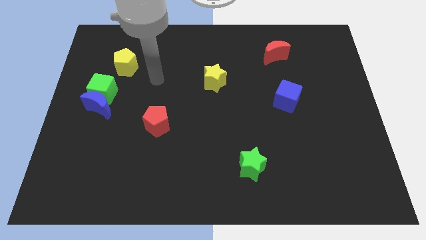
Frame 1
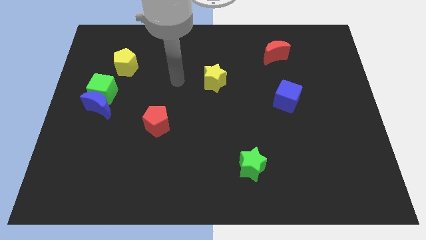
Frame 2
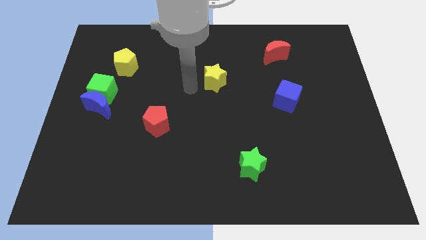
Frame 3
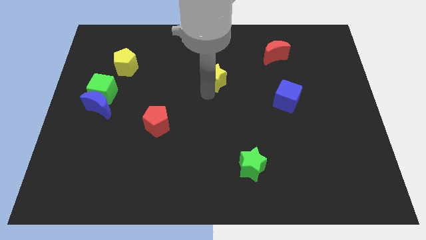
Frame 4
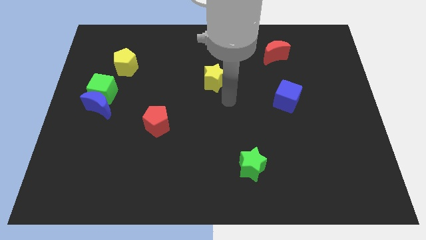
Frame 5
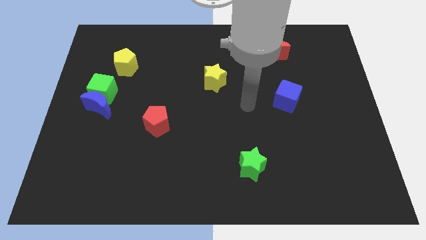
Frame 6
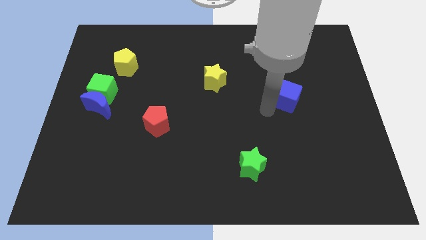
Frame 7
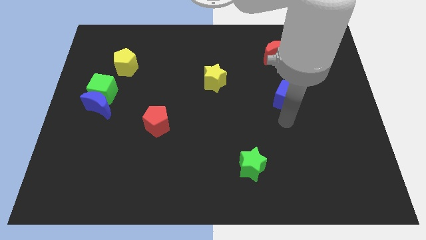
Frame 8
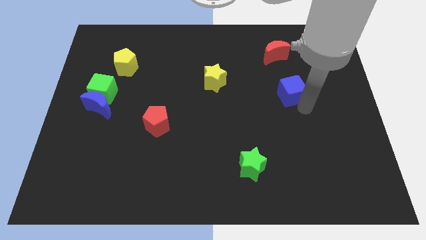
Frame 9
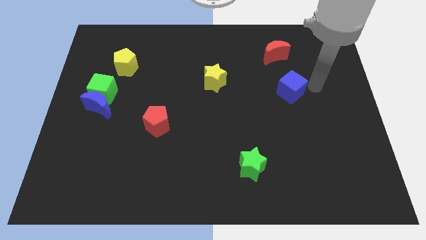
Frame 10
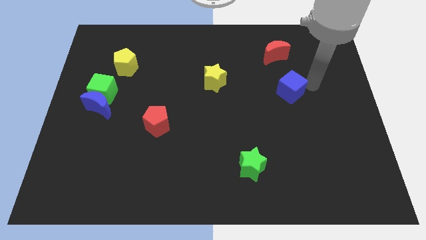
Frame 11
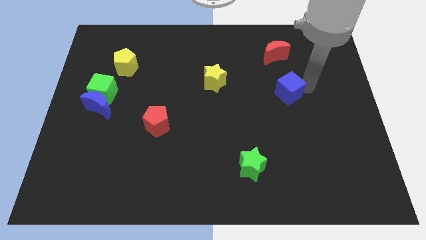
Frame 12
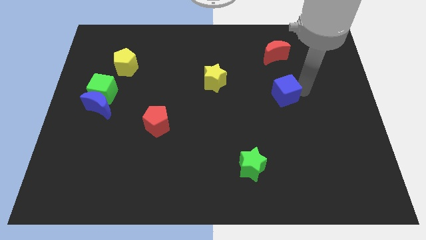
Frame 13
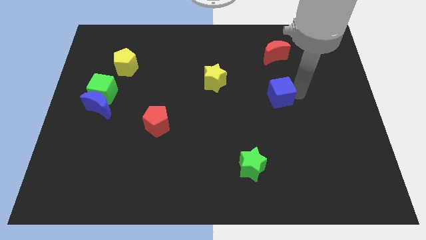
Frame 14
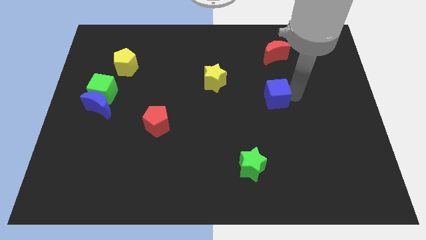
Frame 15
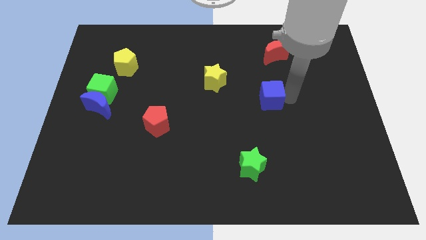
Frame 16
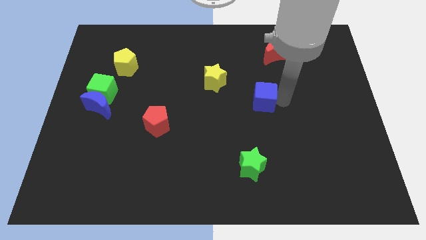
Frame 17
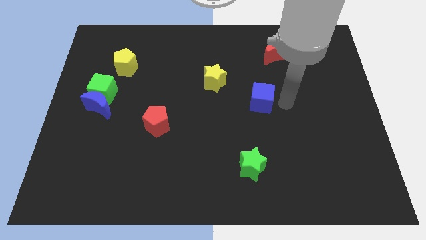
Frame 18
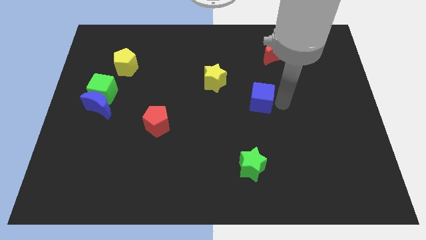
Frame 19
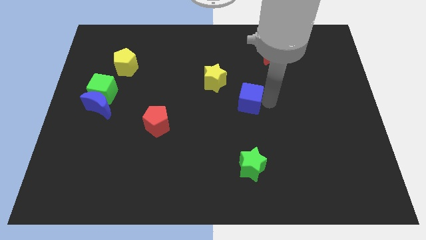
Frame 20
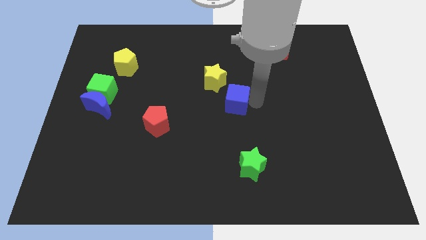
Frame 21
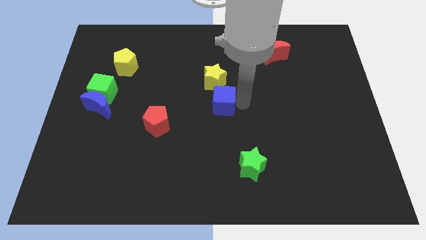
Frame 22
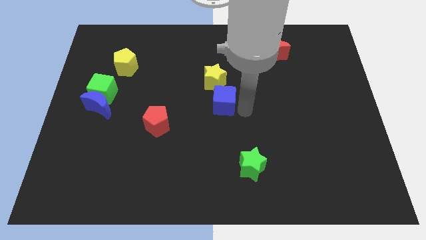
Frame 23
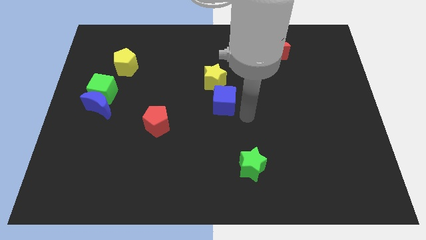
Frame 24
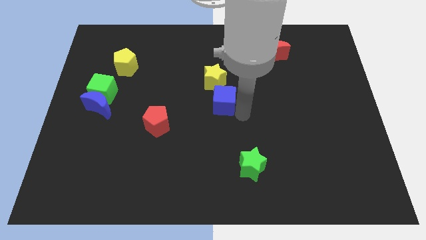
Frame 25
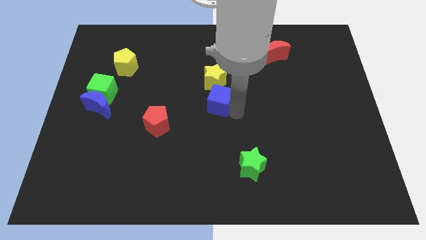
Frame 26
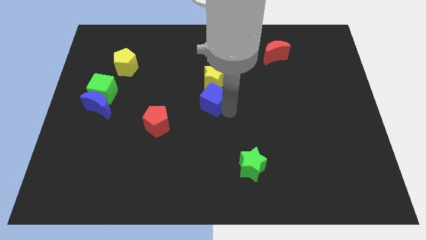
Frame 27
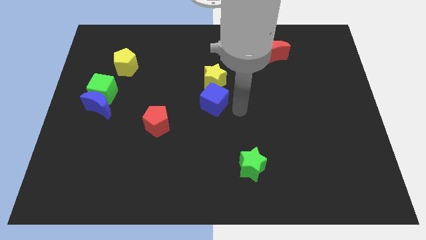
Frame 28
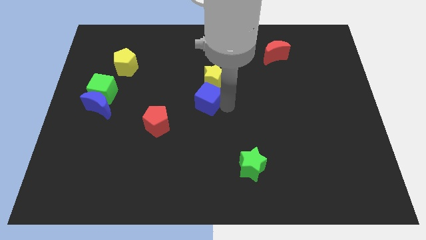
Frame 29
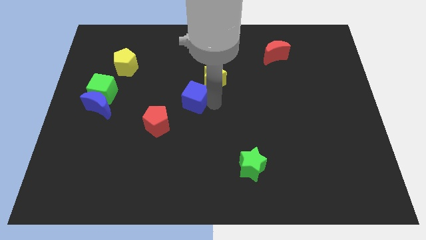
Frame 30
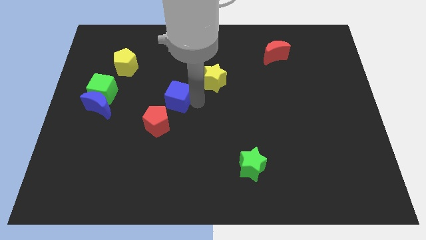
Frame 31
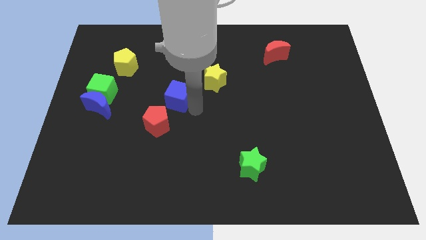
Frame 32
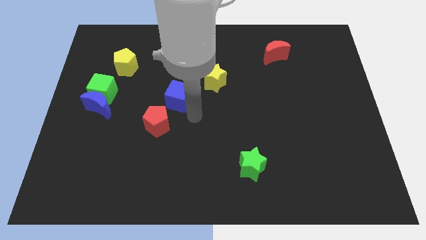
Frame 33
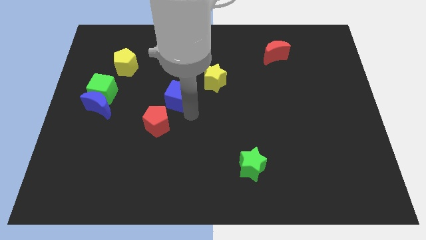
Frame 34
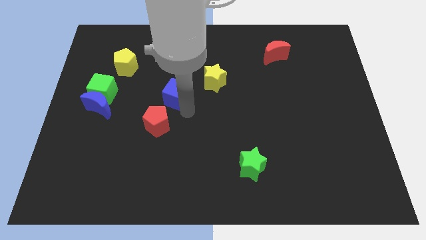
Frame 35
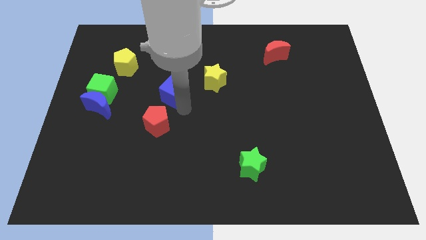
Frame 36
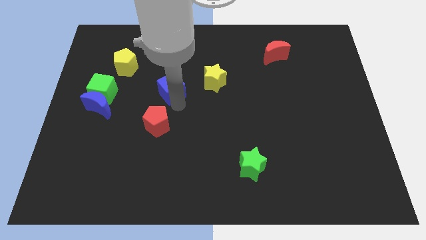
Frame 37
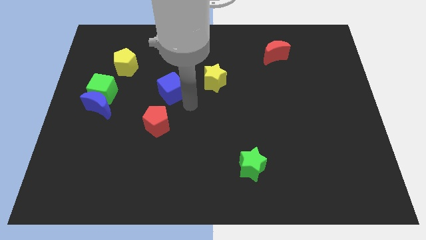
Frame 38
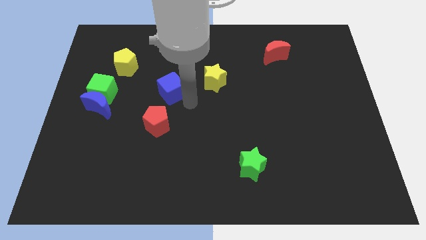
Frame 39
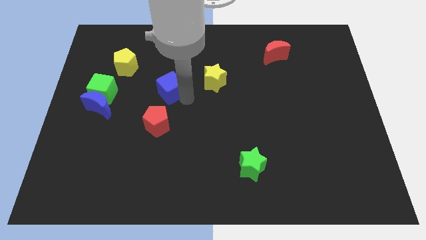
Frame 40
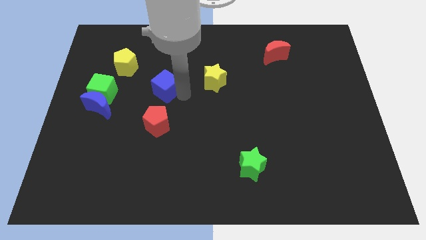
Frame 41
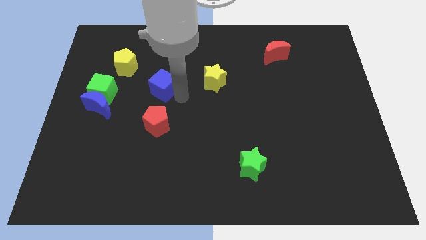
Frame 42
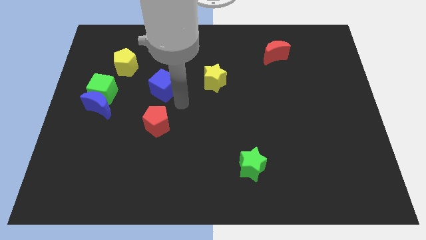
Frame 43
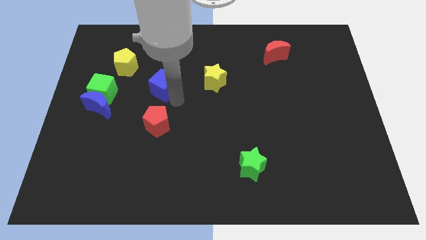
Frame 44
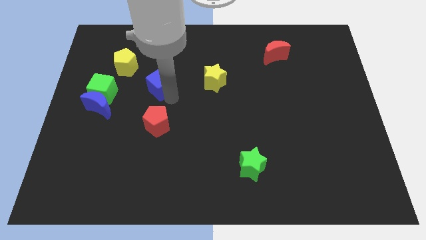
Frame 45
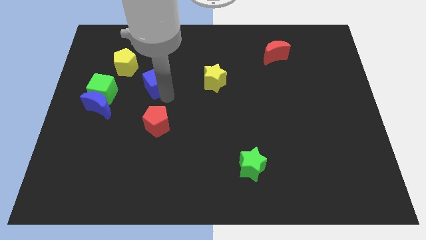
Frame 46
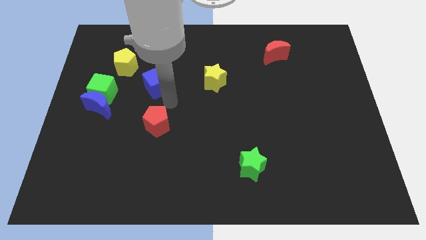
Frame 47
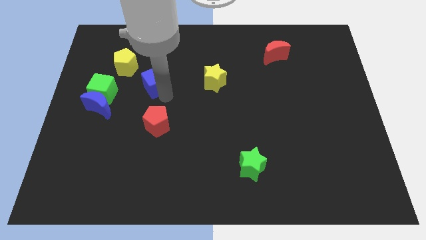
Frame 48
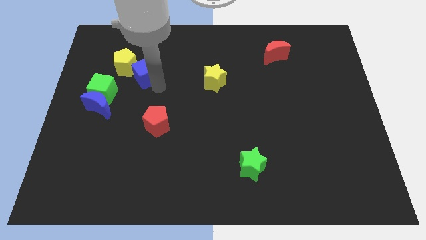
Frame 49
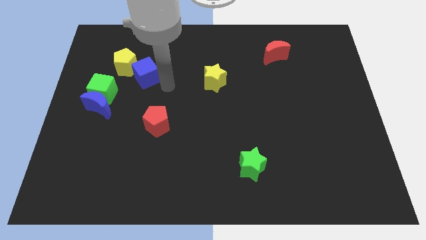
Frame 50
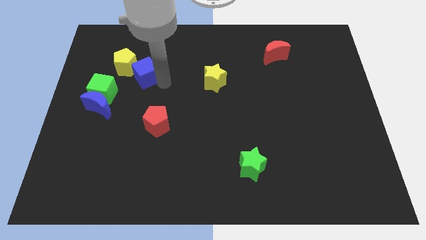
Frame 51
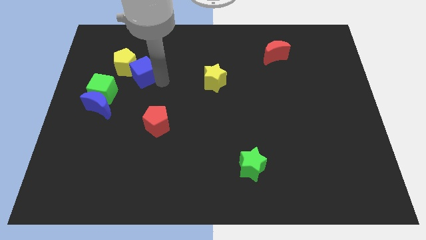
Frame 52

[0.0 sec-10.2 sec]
slide the blue cube towards the yellow pentagon

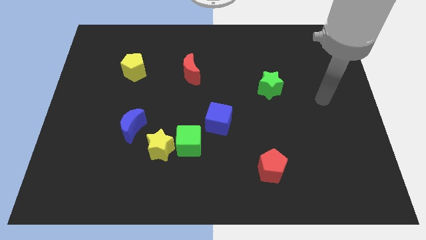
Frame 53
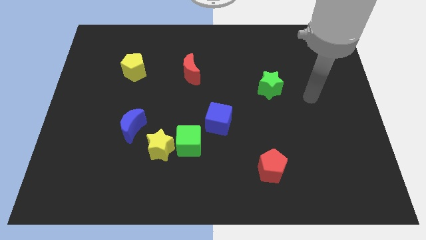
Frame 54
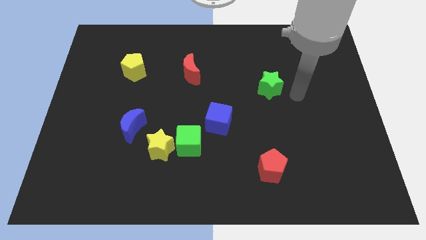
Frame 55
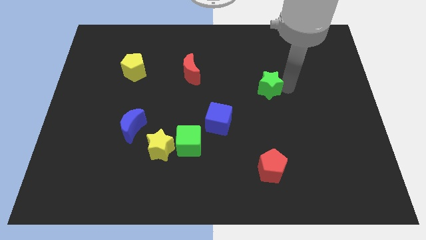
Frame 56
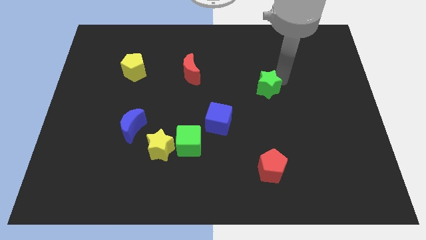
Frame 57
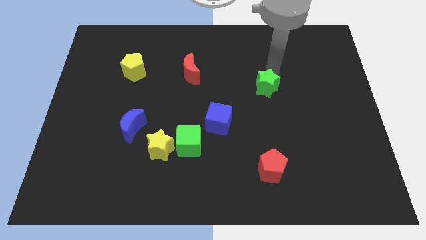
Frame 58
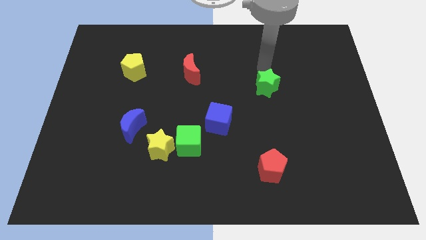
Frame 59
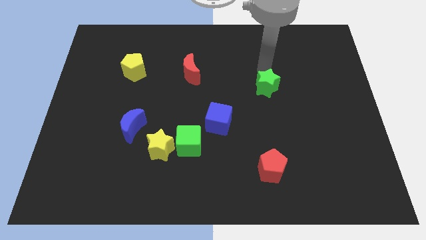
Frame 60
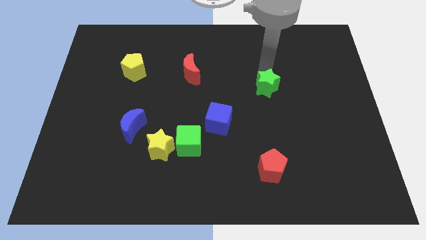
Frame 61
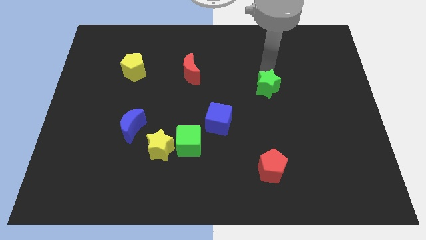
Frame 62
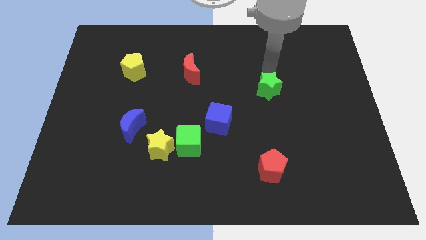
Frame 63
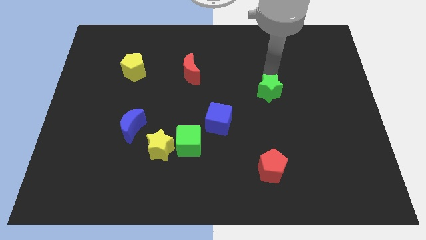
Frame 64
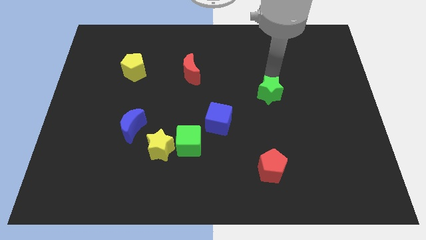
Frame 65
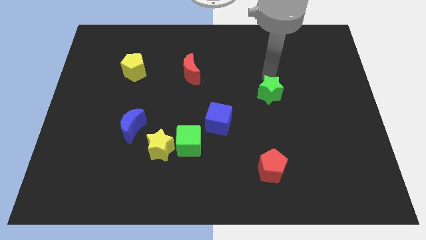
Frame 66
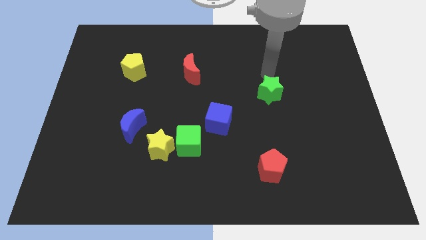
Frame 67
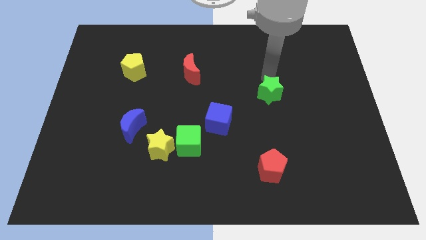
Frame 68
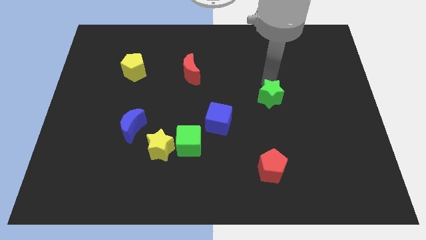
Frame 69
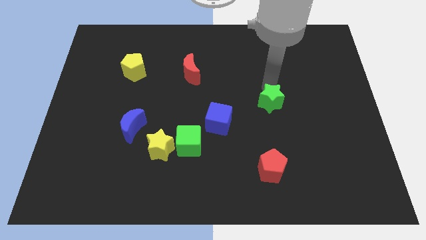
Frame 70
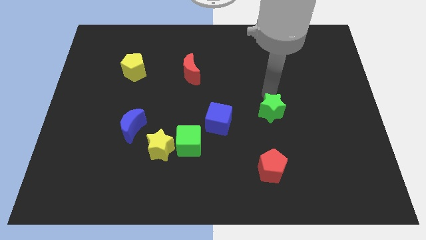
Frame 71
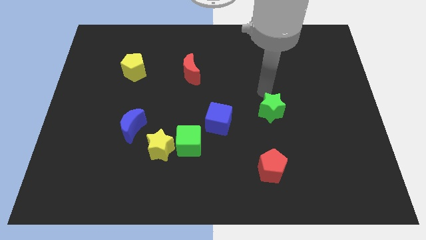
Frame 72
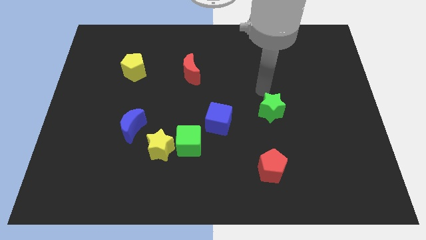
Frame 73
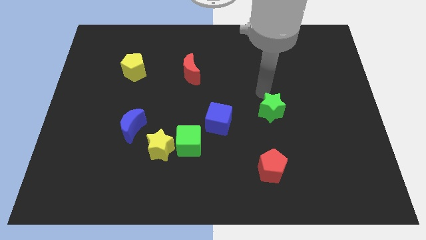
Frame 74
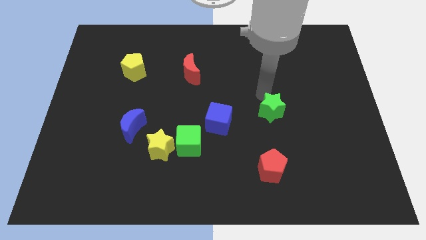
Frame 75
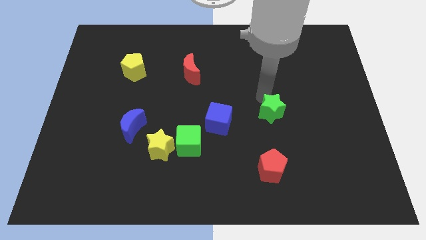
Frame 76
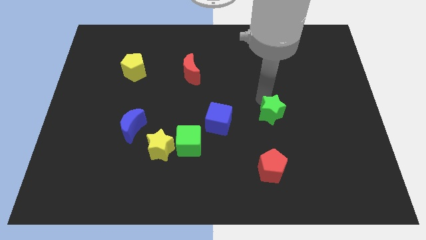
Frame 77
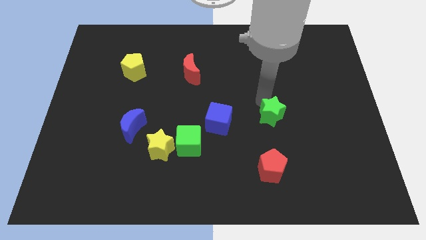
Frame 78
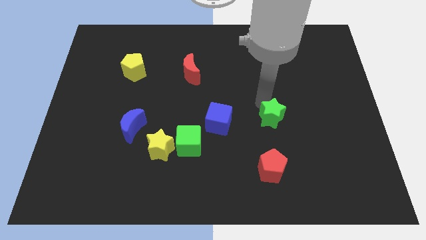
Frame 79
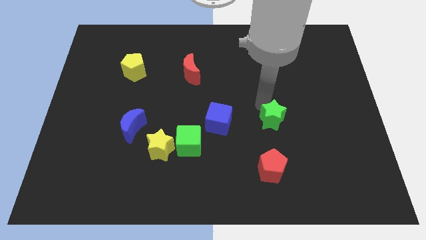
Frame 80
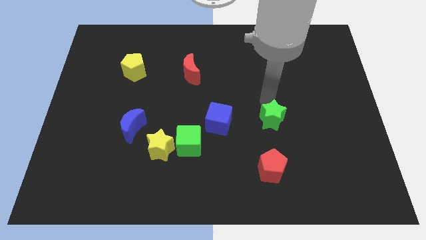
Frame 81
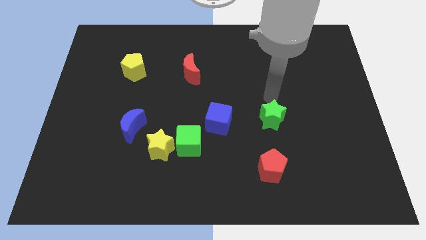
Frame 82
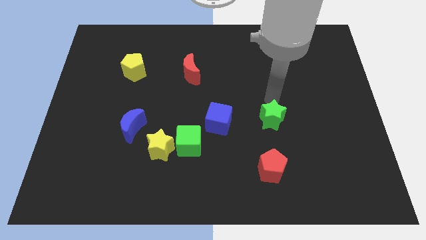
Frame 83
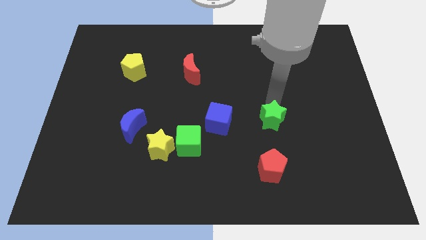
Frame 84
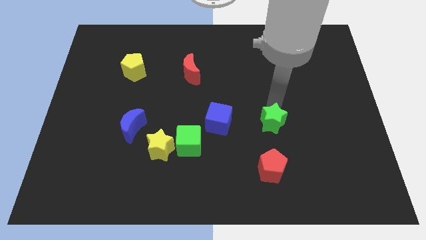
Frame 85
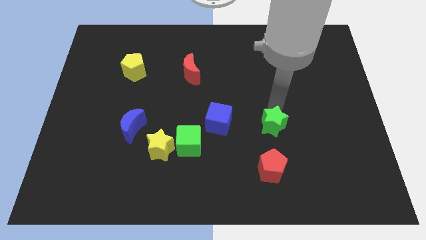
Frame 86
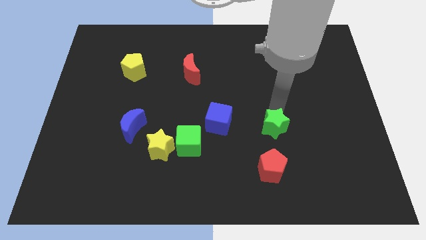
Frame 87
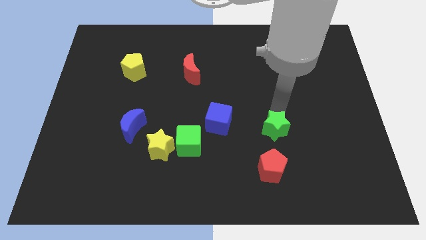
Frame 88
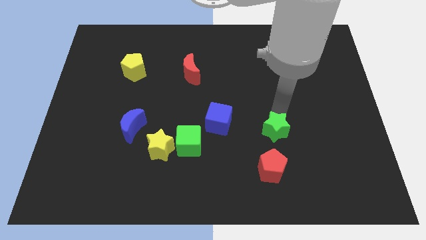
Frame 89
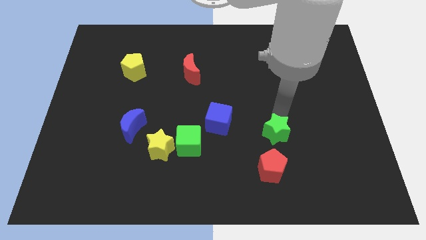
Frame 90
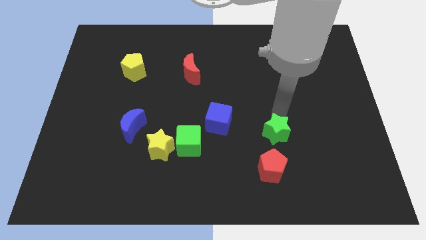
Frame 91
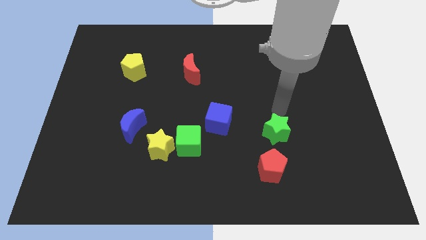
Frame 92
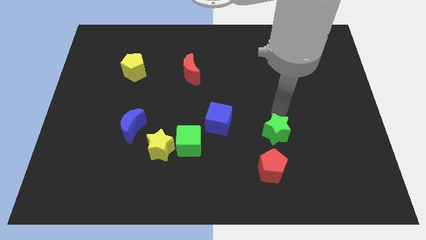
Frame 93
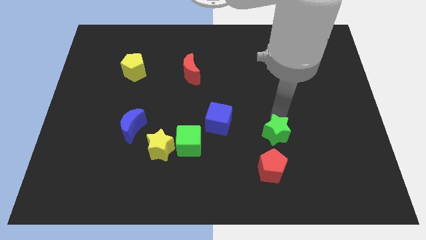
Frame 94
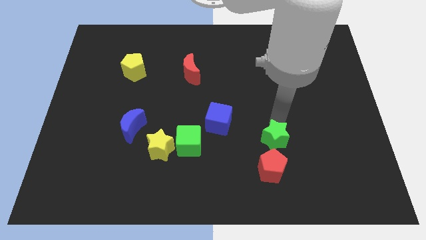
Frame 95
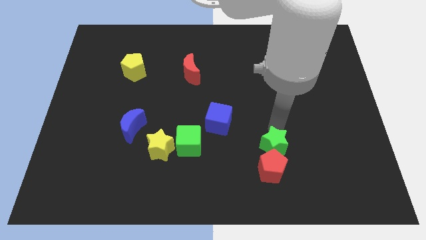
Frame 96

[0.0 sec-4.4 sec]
push the green star towards the red pentagon
